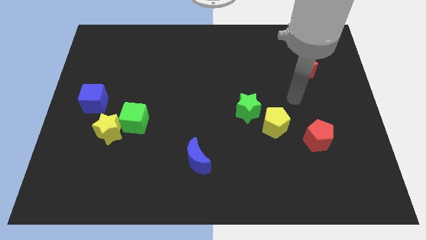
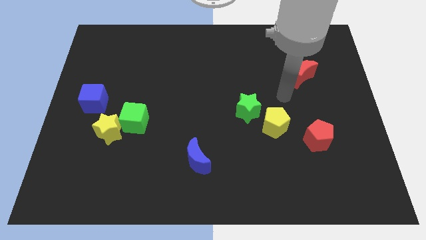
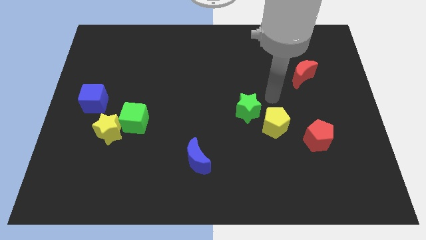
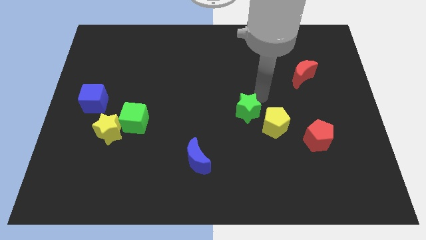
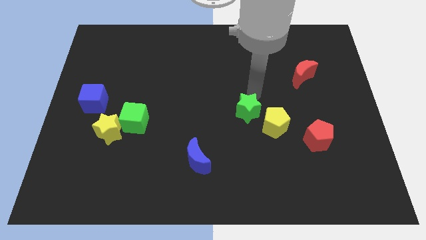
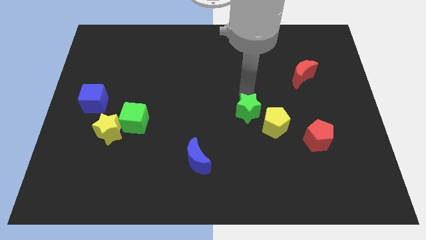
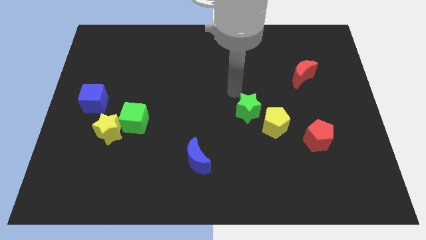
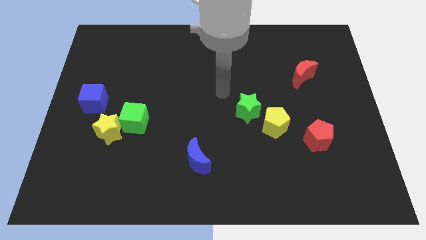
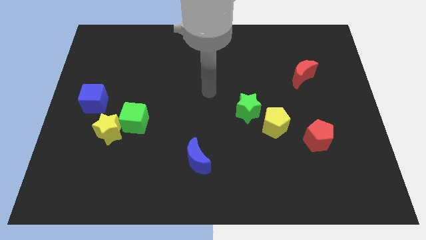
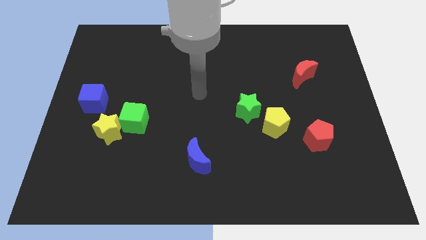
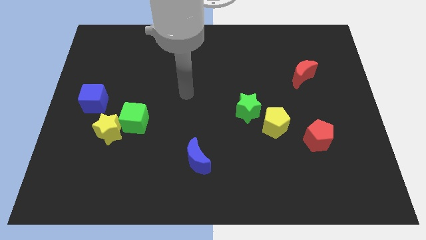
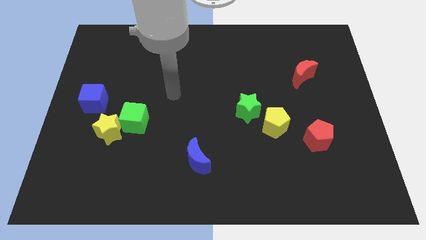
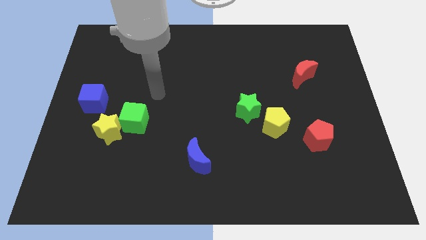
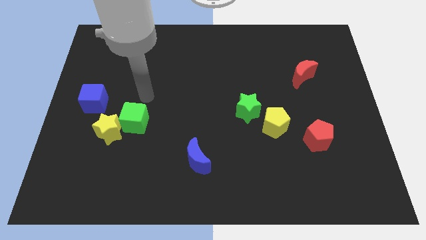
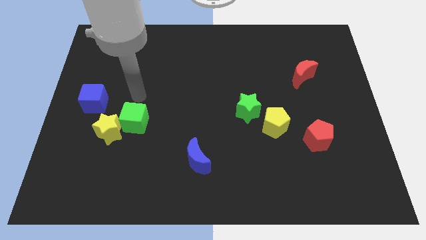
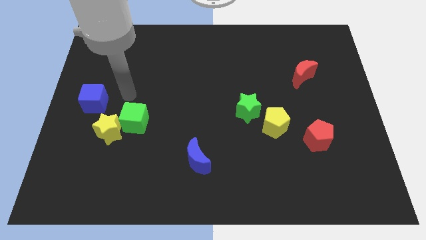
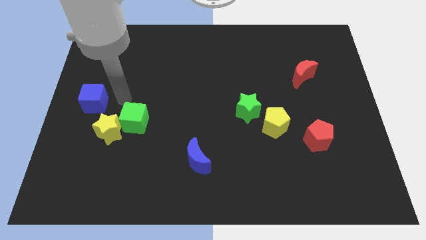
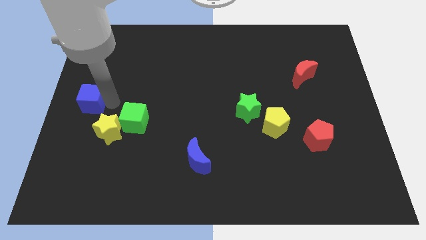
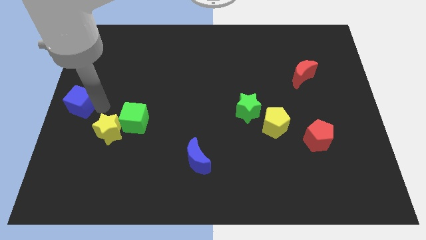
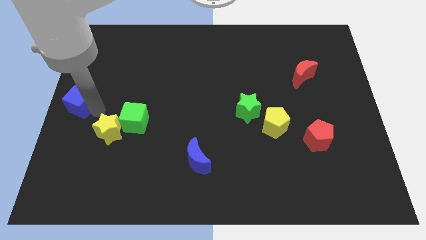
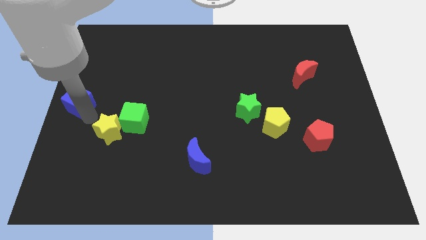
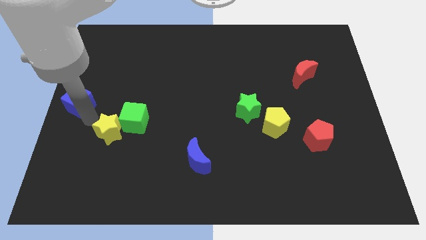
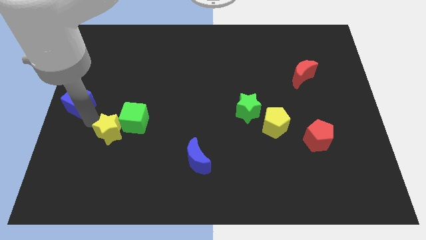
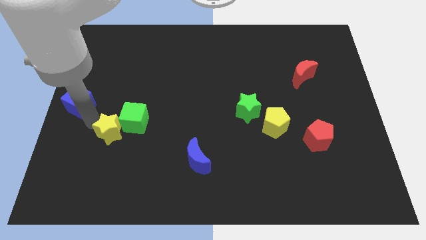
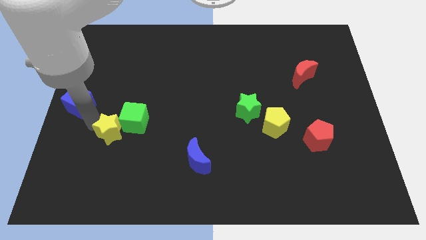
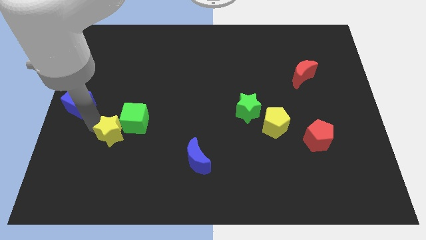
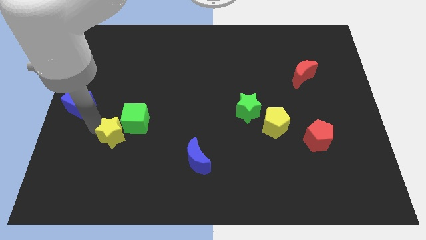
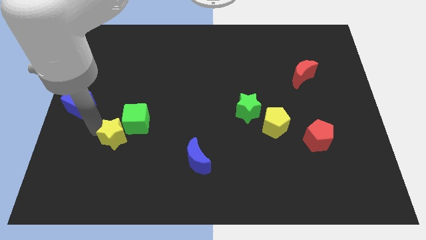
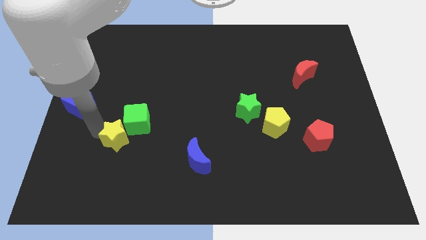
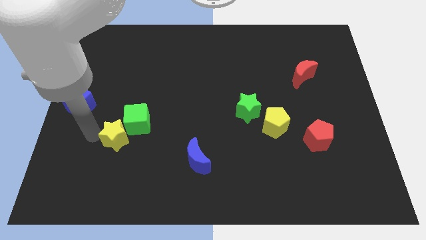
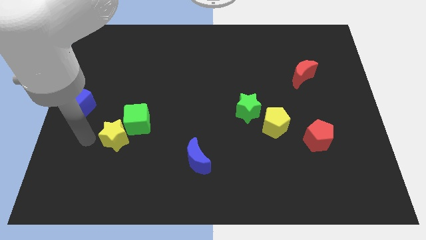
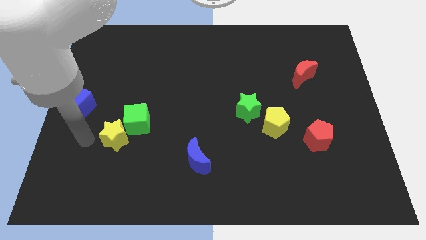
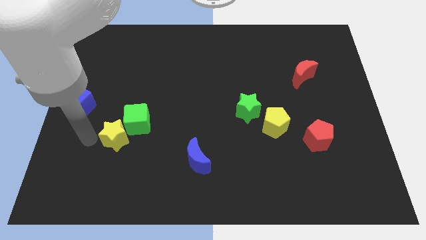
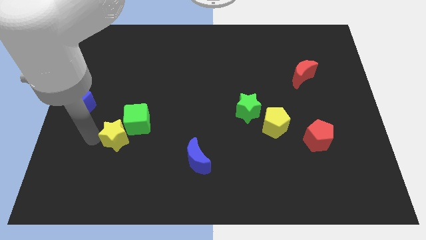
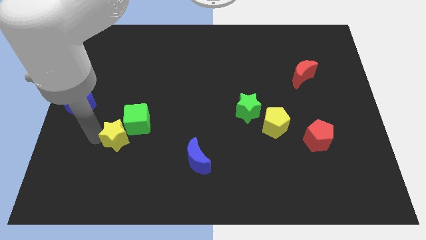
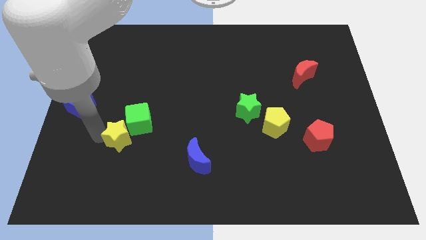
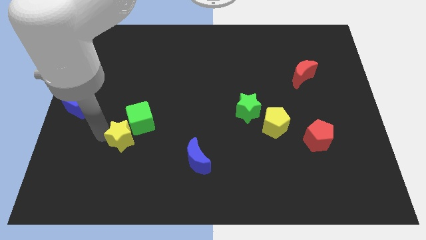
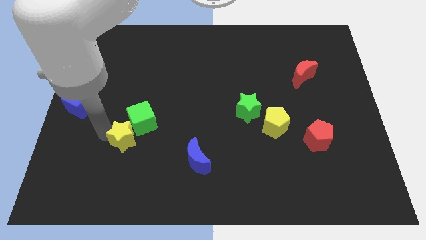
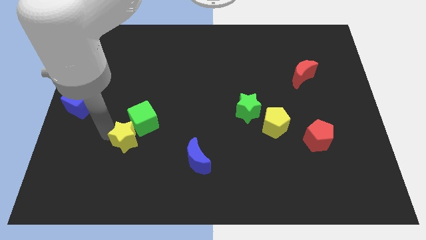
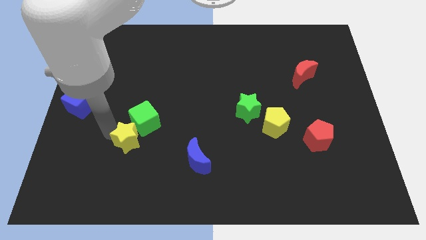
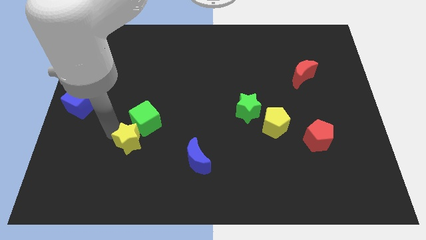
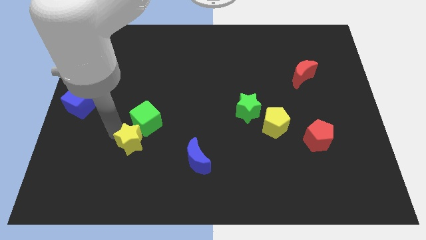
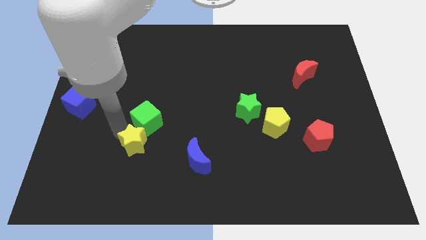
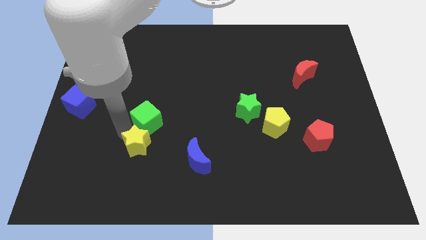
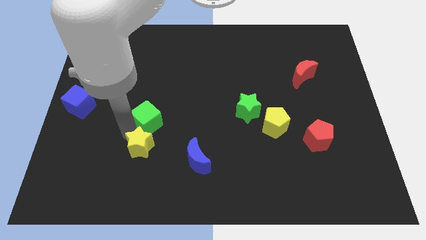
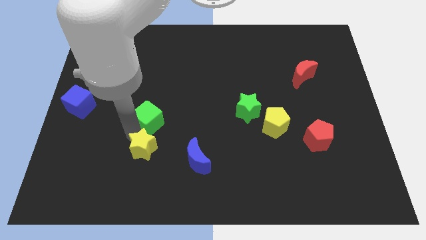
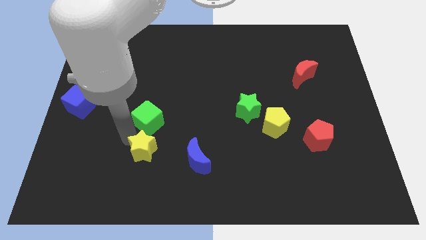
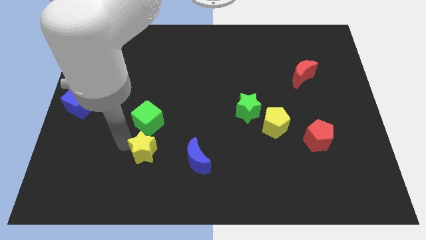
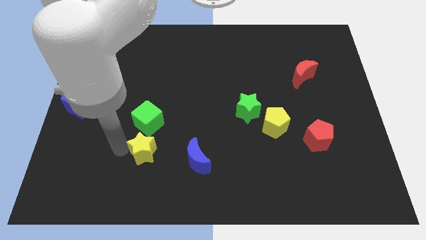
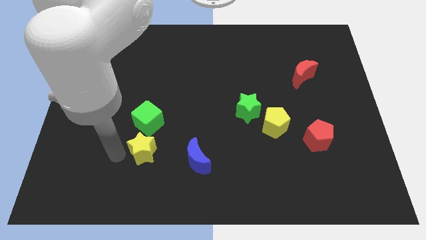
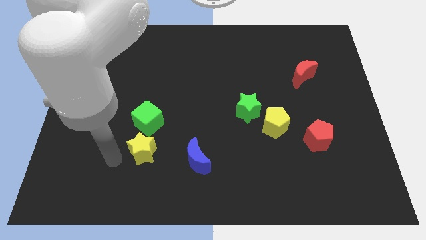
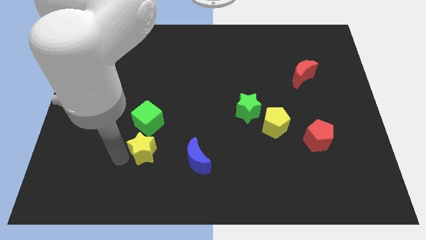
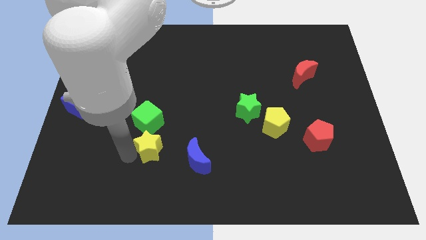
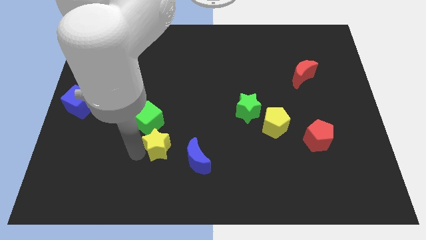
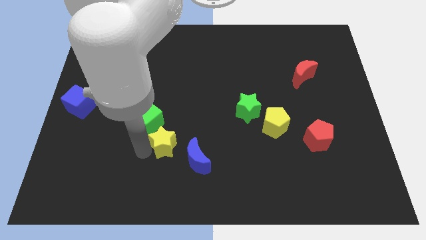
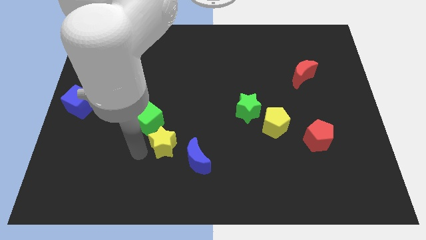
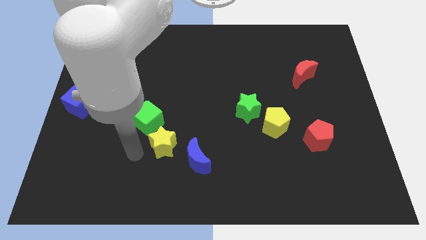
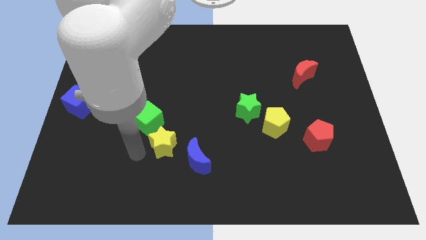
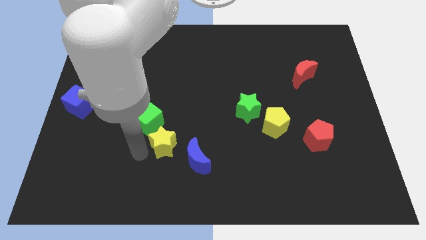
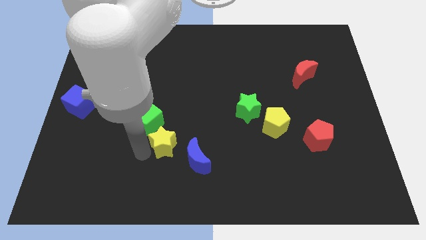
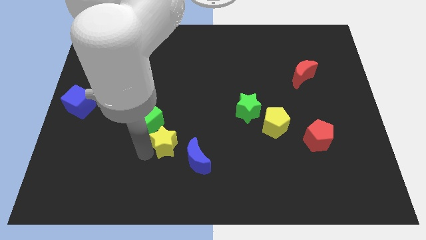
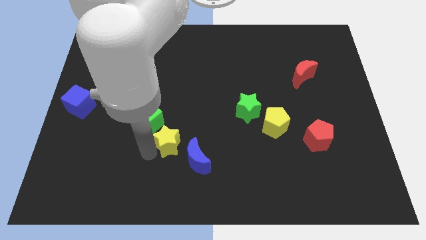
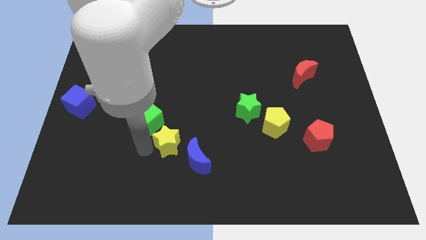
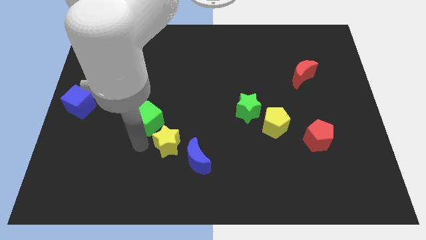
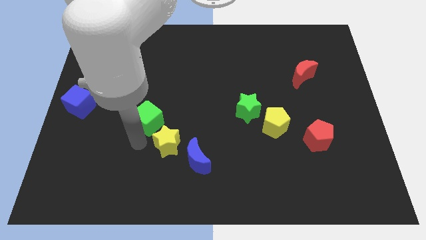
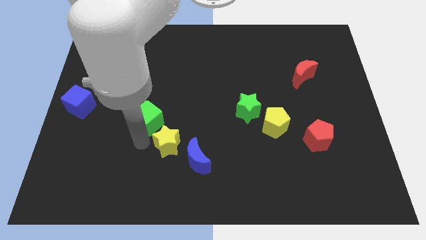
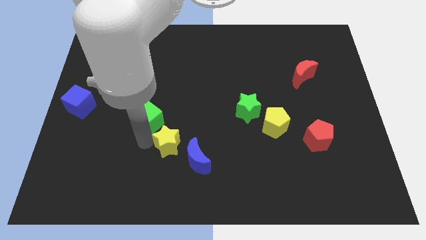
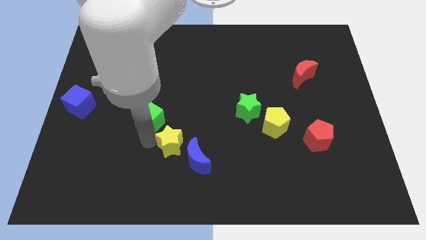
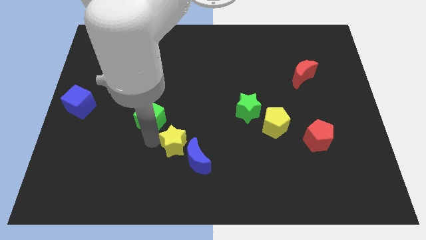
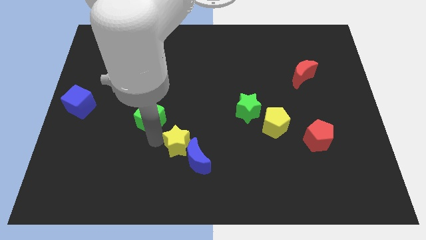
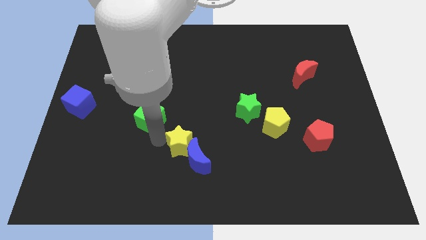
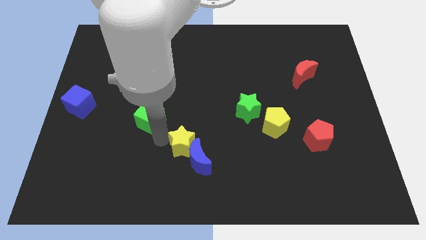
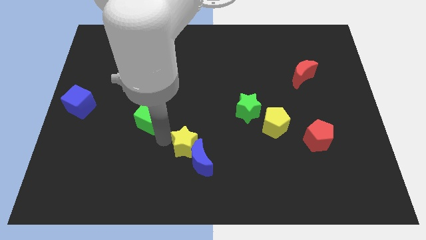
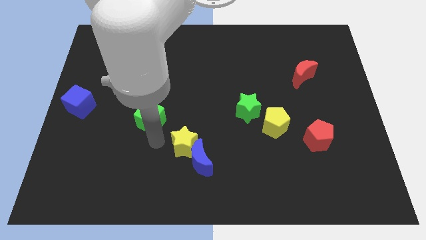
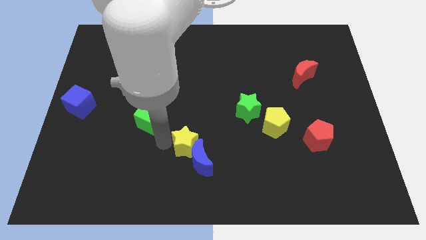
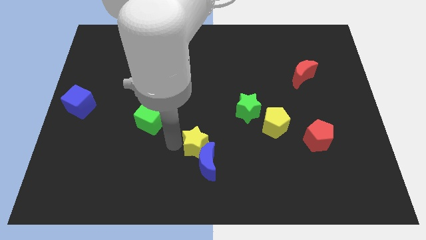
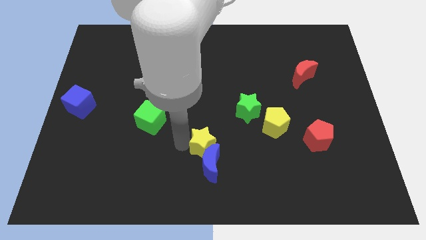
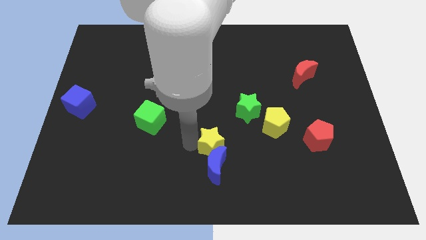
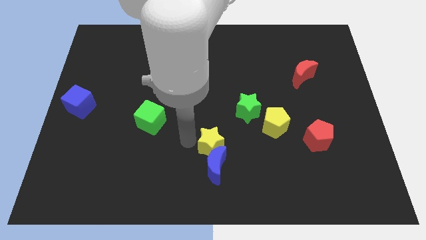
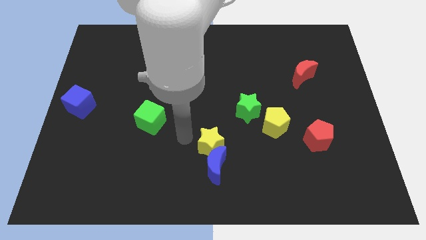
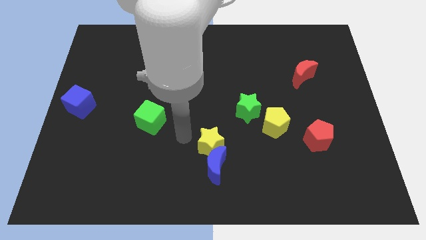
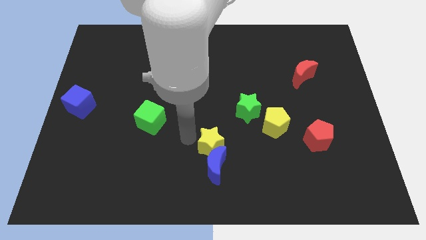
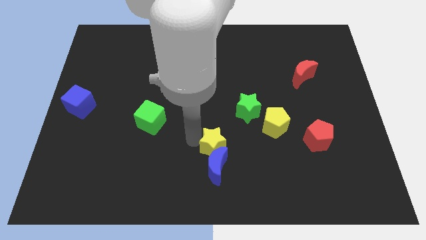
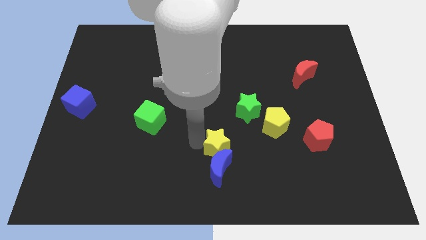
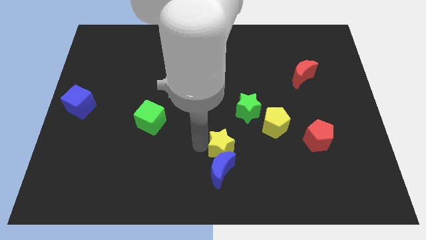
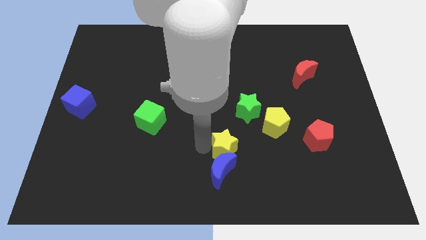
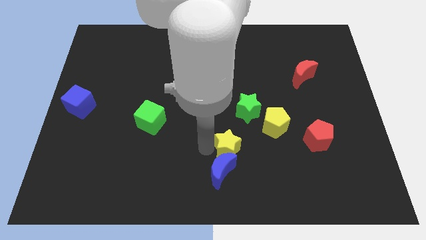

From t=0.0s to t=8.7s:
slide the yellow star to the bottom left of the yellow pentagon
